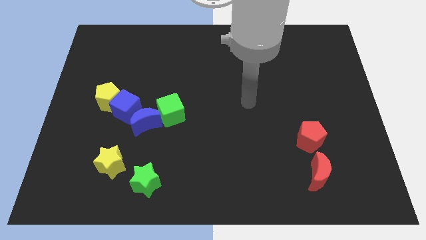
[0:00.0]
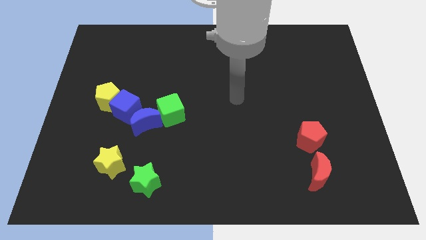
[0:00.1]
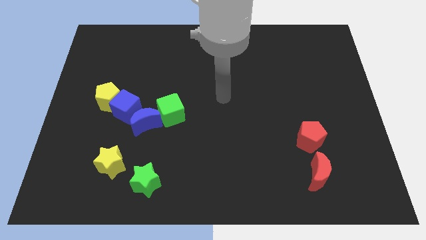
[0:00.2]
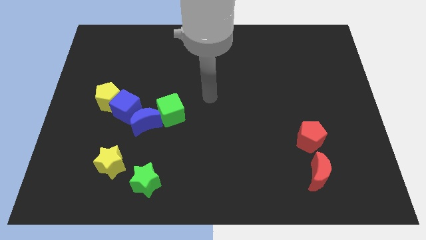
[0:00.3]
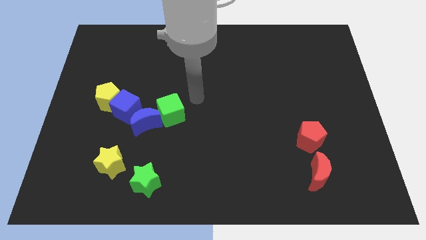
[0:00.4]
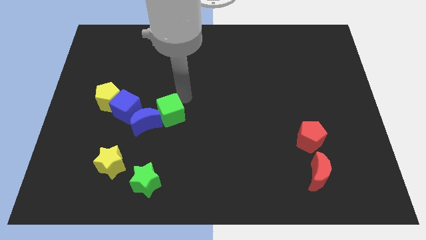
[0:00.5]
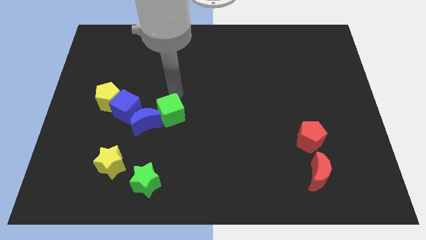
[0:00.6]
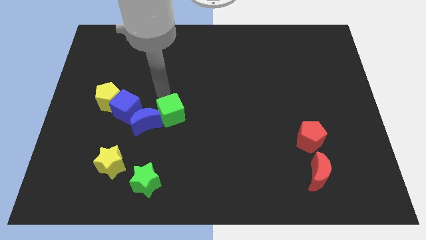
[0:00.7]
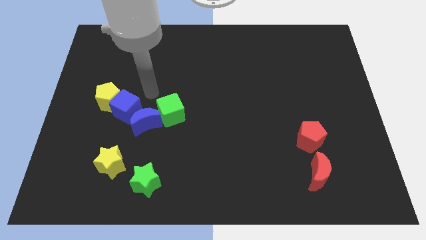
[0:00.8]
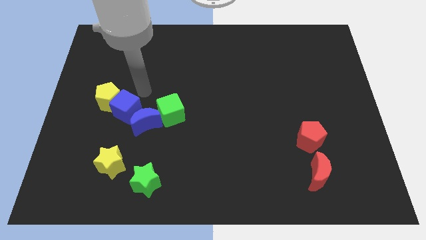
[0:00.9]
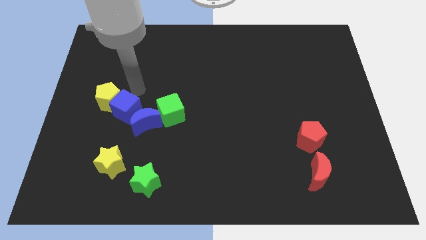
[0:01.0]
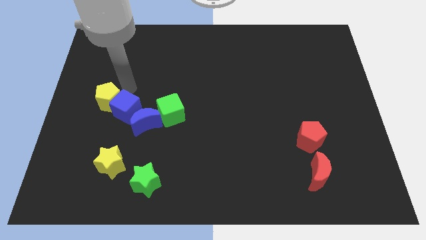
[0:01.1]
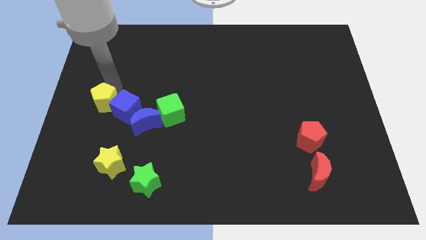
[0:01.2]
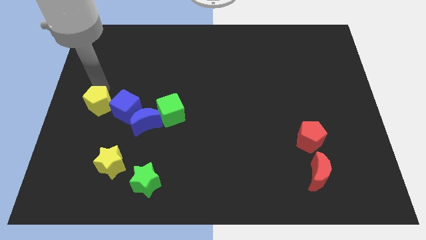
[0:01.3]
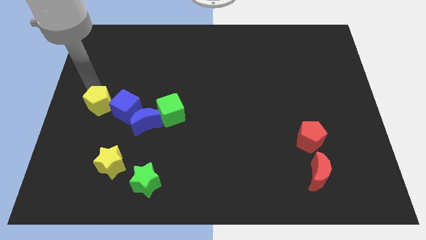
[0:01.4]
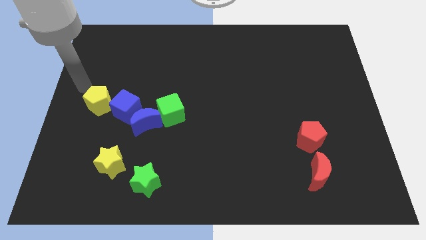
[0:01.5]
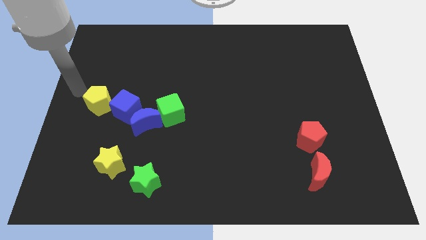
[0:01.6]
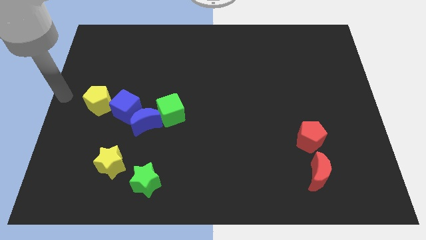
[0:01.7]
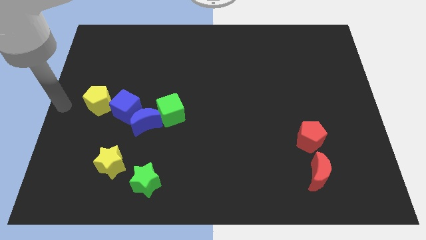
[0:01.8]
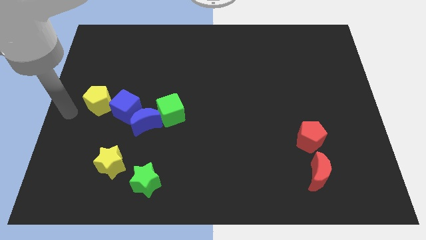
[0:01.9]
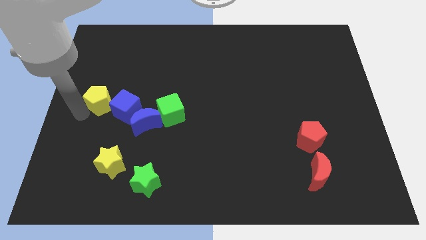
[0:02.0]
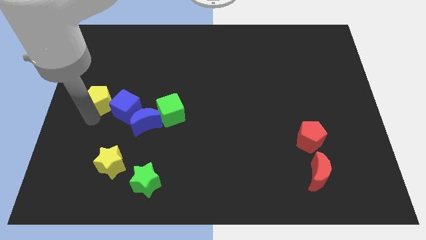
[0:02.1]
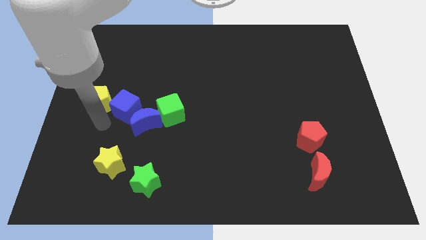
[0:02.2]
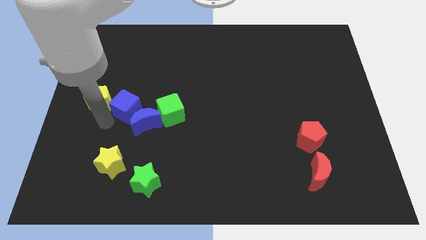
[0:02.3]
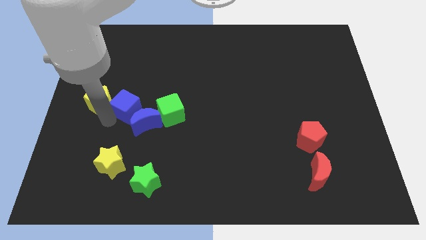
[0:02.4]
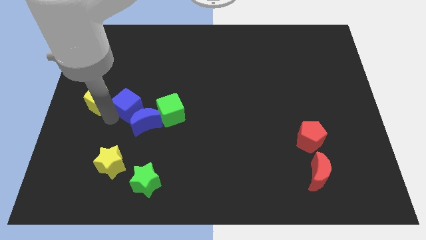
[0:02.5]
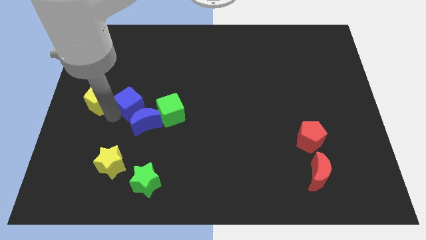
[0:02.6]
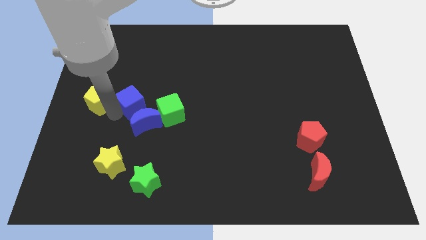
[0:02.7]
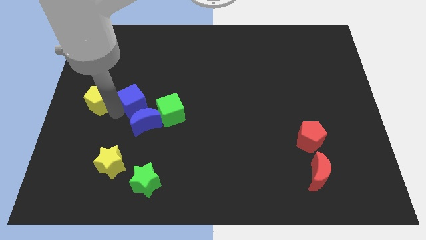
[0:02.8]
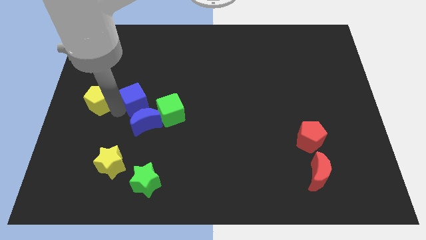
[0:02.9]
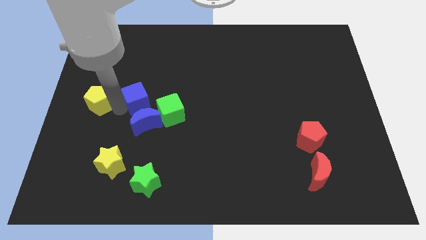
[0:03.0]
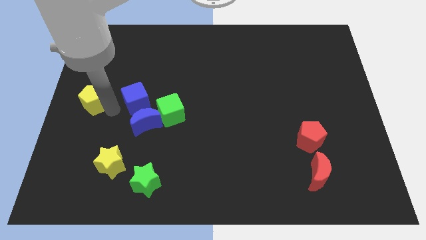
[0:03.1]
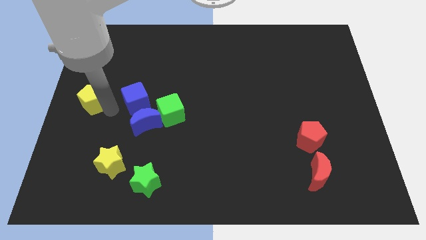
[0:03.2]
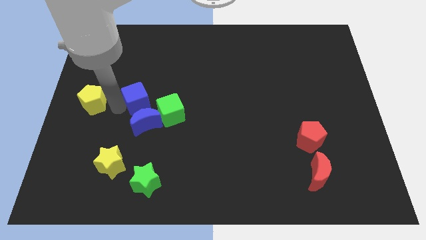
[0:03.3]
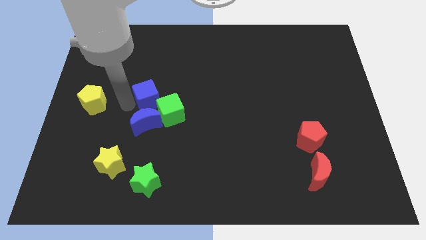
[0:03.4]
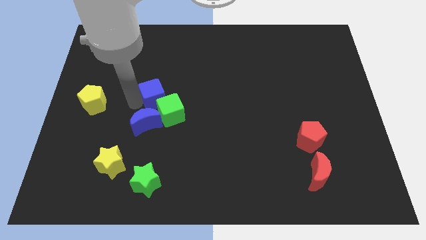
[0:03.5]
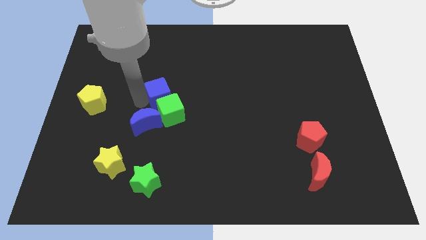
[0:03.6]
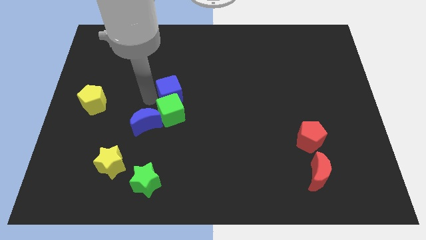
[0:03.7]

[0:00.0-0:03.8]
push the blue cube somewhat to the right

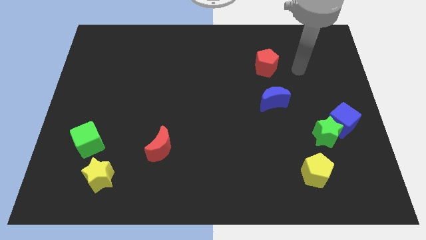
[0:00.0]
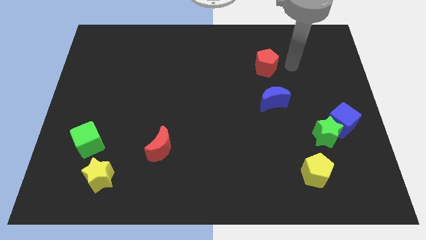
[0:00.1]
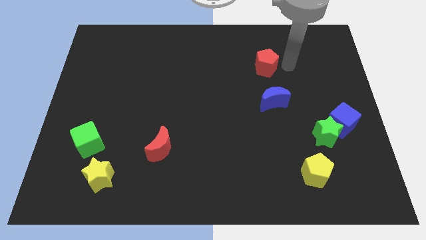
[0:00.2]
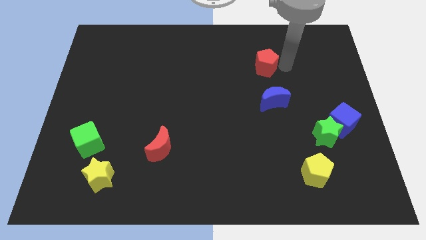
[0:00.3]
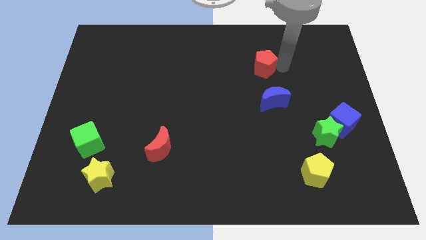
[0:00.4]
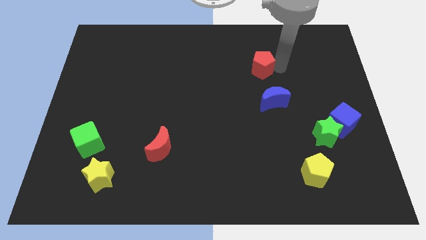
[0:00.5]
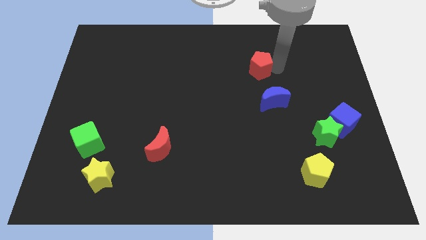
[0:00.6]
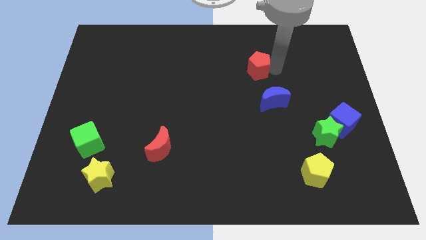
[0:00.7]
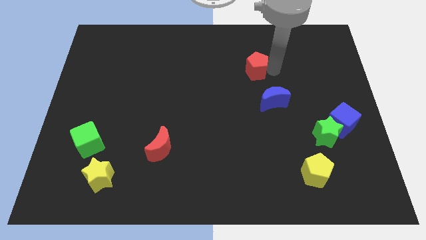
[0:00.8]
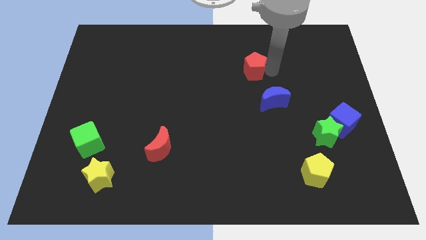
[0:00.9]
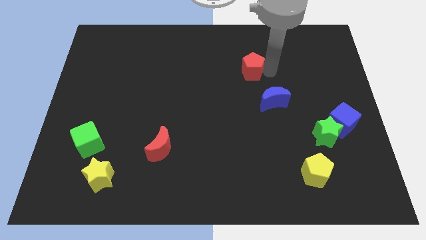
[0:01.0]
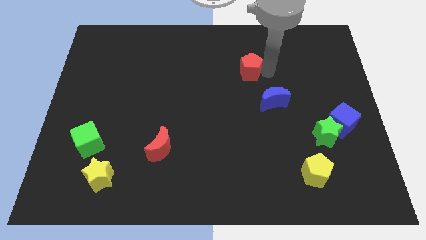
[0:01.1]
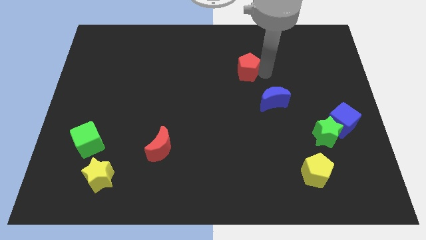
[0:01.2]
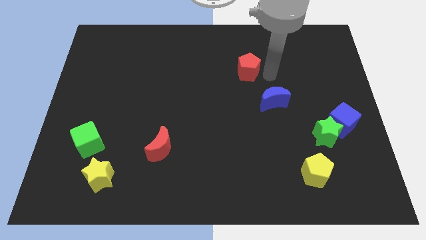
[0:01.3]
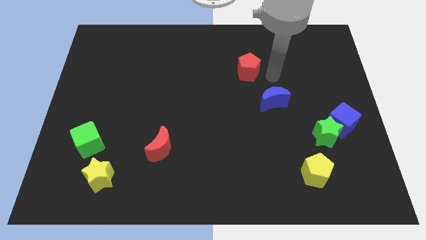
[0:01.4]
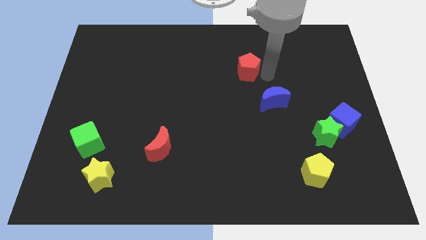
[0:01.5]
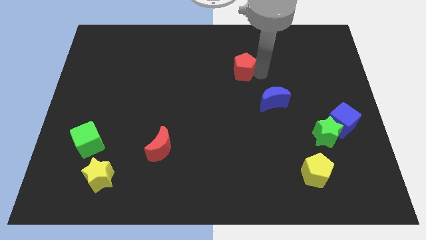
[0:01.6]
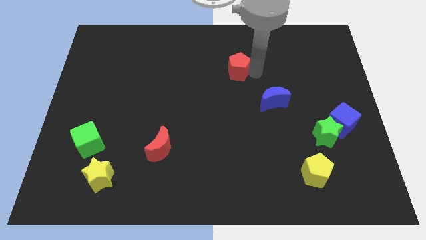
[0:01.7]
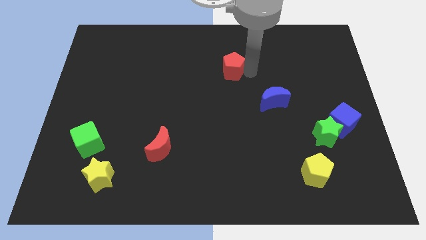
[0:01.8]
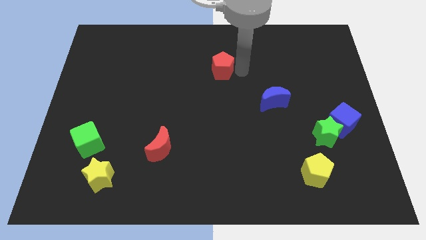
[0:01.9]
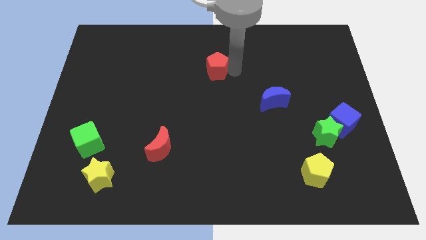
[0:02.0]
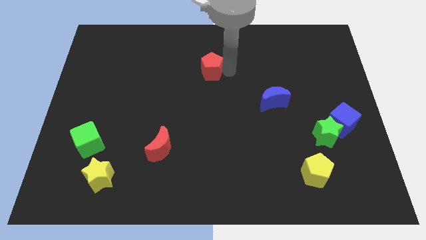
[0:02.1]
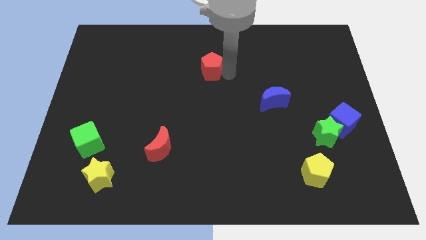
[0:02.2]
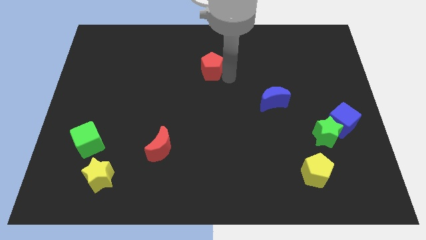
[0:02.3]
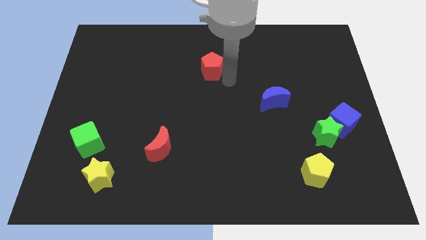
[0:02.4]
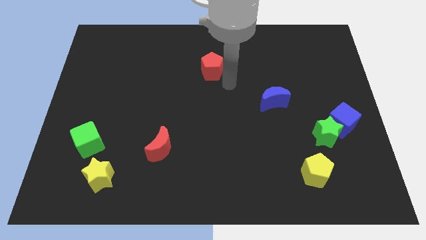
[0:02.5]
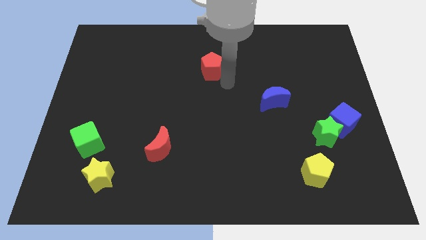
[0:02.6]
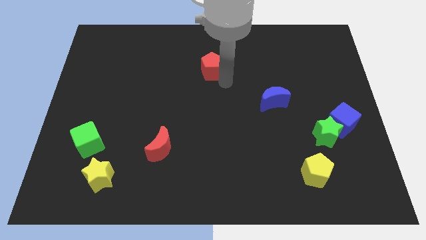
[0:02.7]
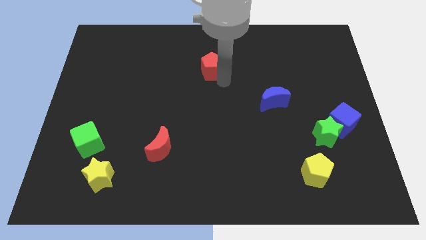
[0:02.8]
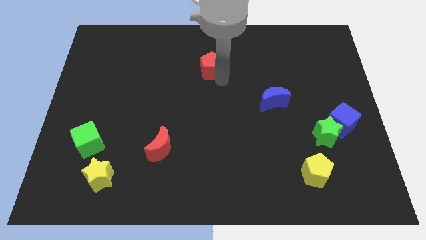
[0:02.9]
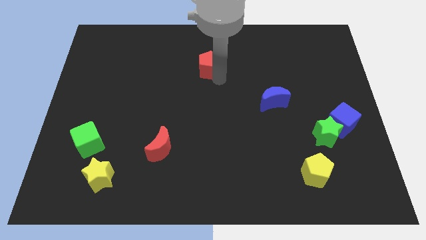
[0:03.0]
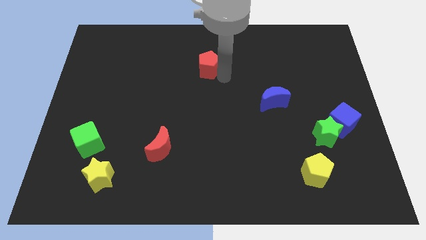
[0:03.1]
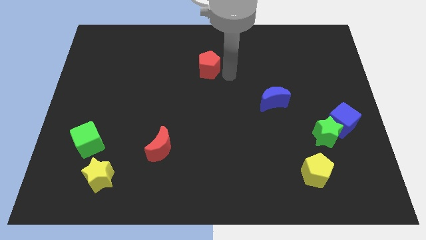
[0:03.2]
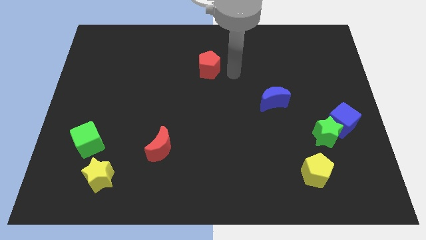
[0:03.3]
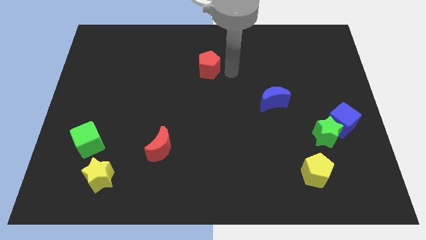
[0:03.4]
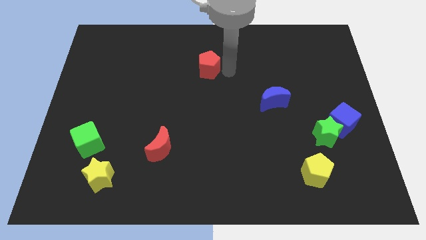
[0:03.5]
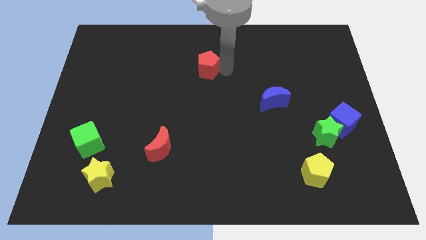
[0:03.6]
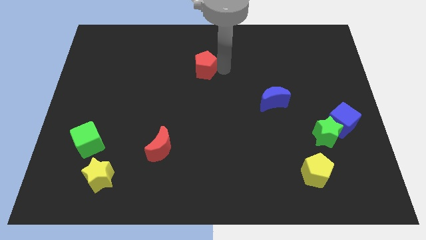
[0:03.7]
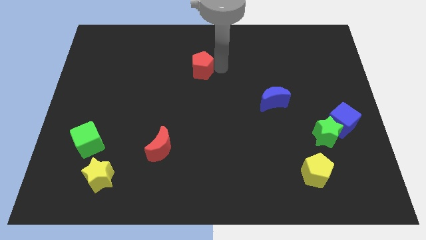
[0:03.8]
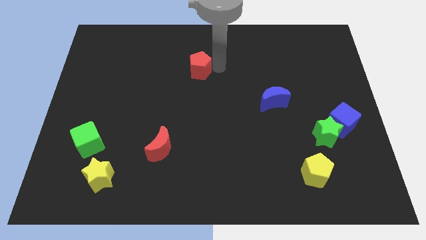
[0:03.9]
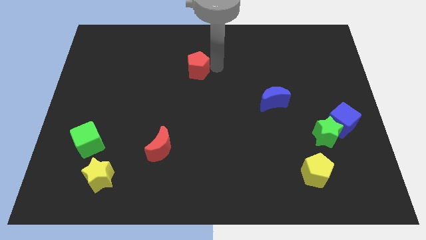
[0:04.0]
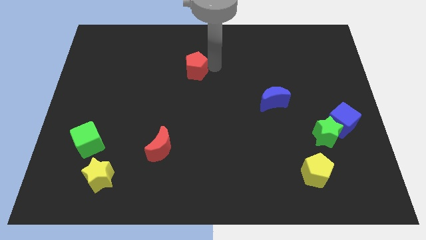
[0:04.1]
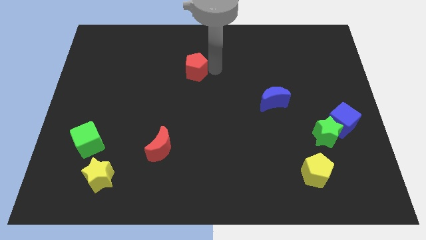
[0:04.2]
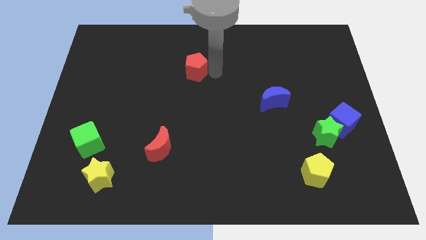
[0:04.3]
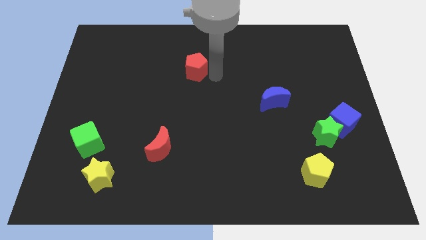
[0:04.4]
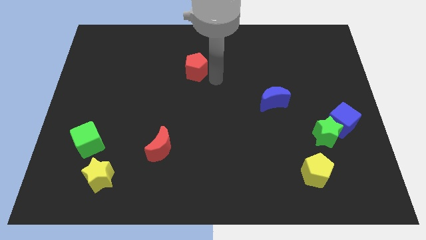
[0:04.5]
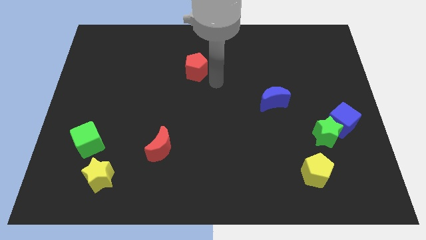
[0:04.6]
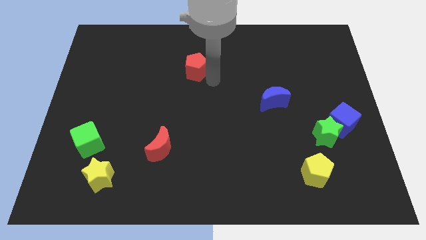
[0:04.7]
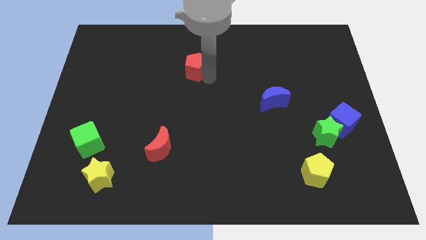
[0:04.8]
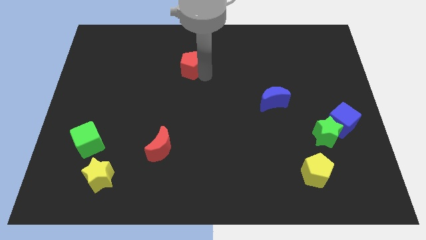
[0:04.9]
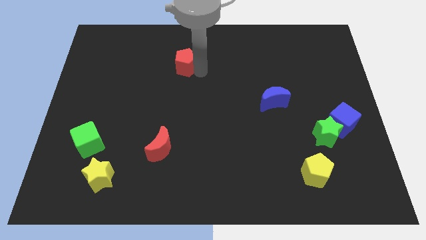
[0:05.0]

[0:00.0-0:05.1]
slide the red pentagon to the left
